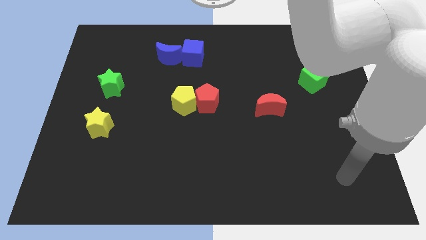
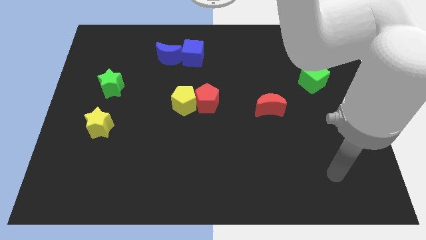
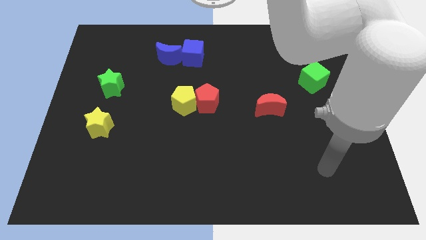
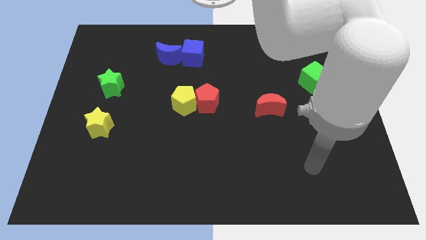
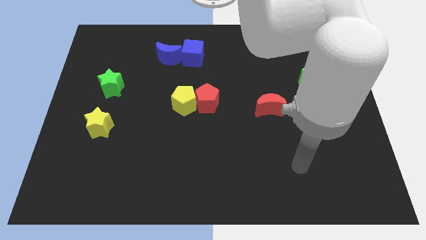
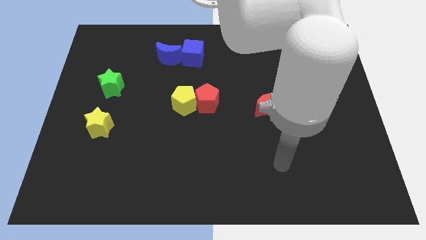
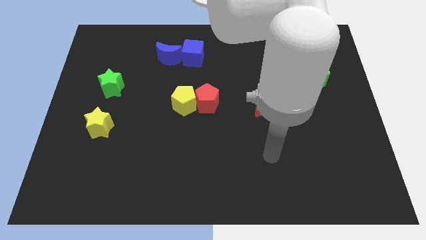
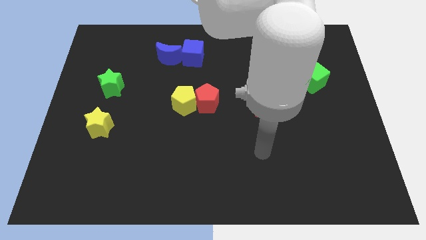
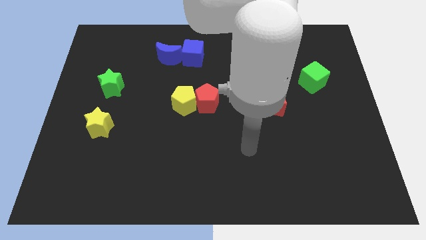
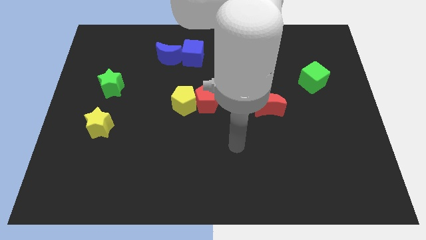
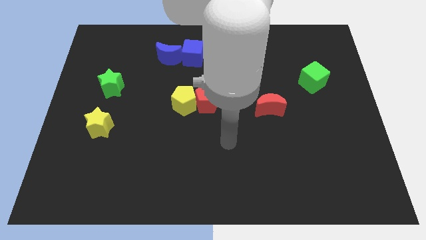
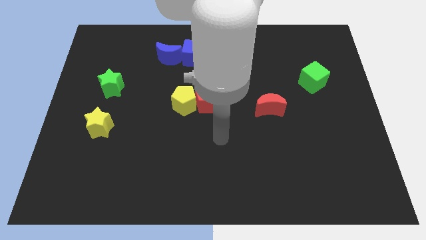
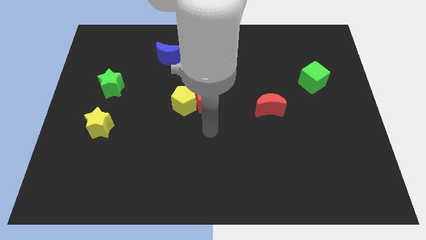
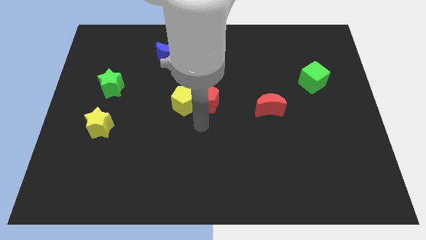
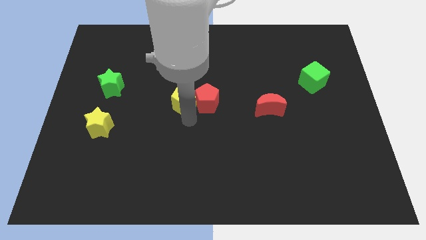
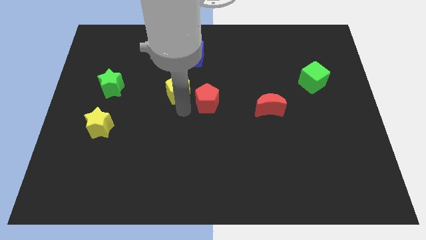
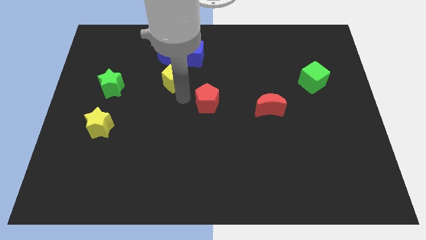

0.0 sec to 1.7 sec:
separate the red pentagon from the yellow pentagon

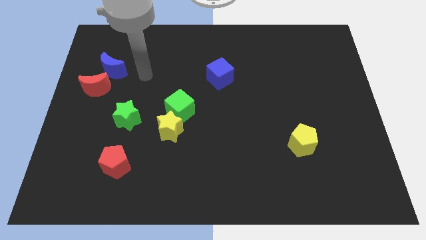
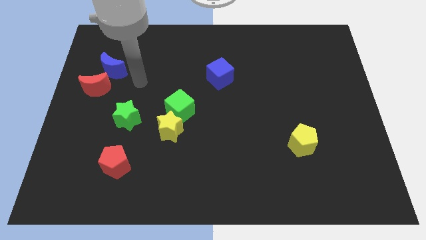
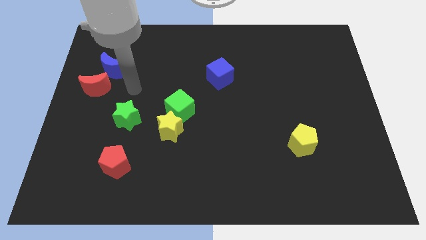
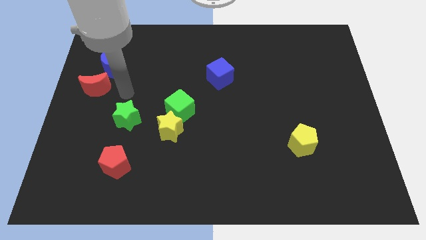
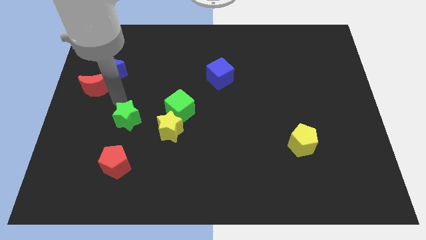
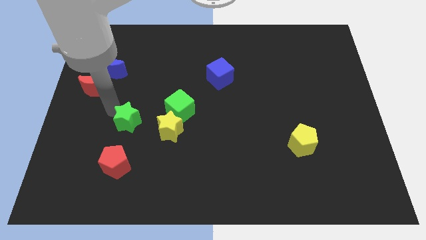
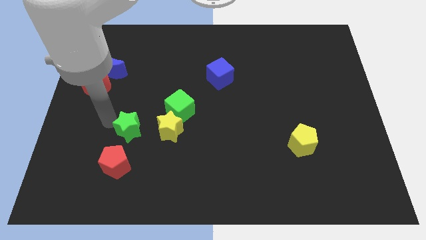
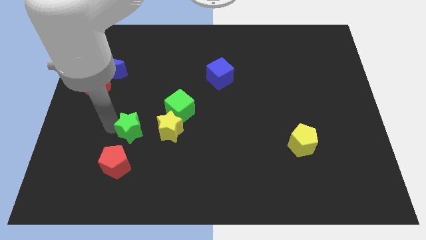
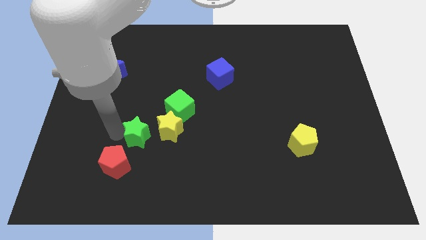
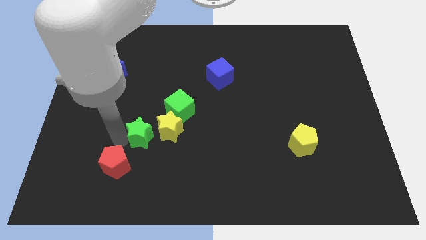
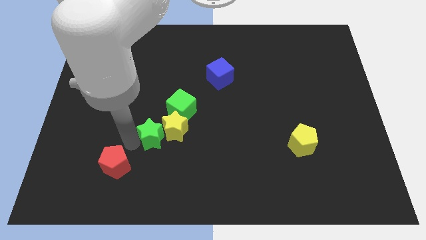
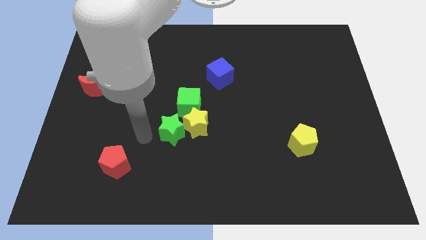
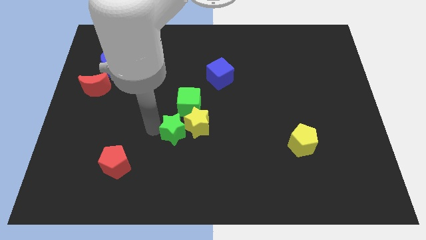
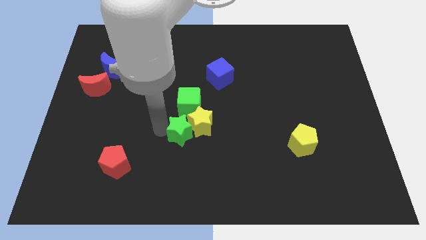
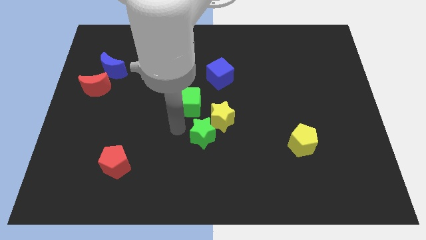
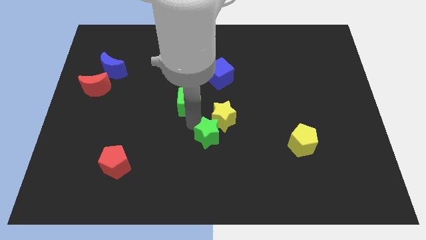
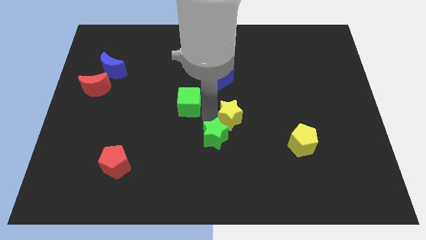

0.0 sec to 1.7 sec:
pull the green cube apart from the yellow star

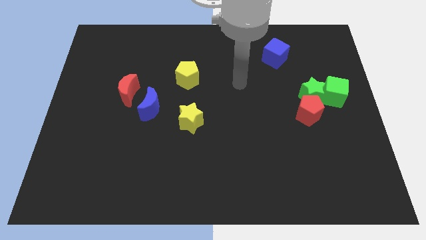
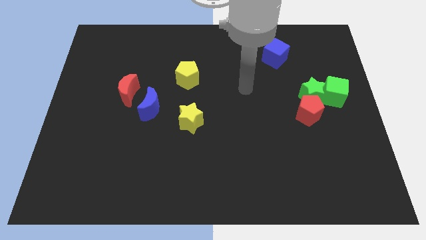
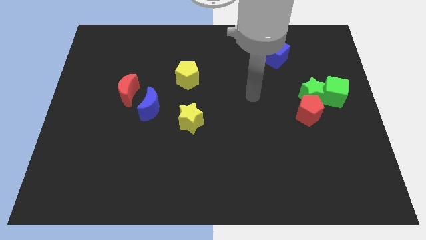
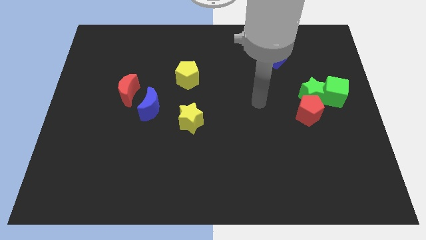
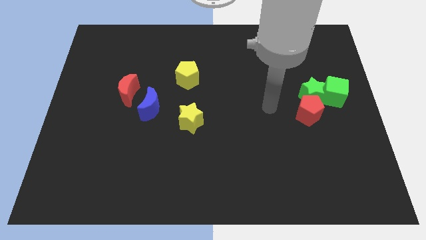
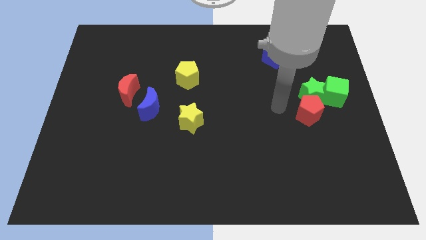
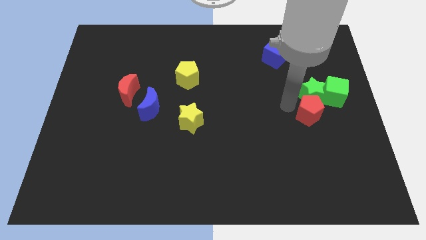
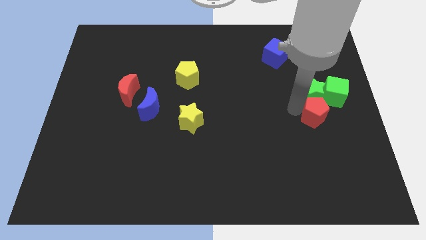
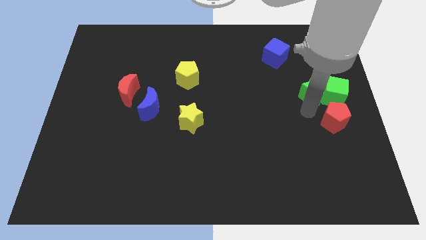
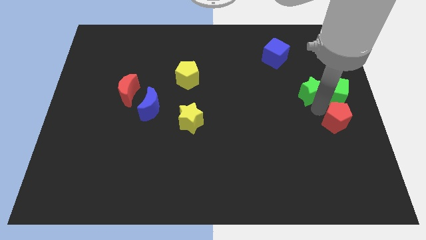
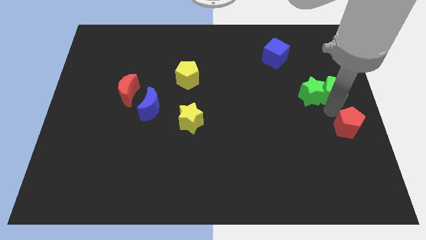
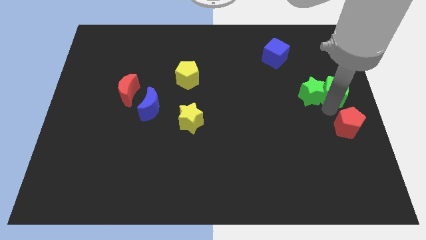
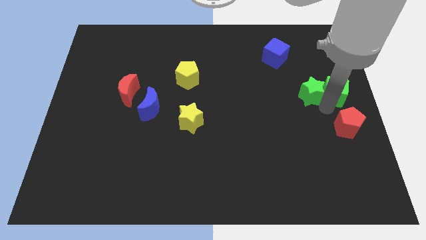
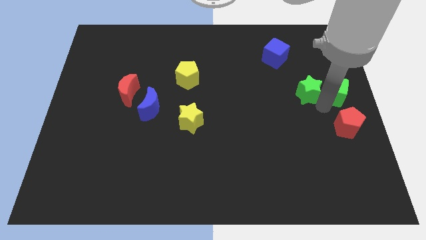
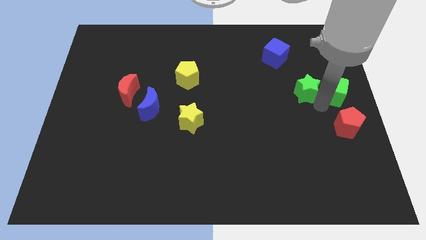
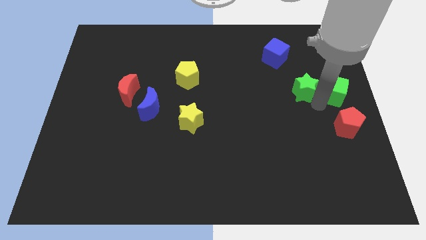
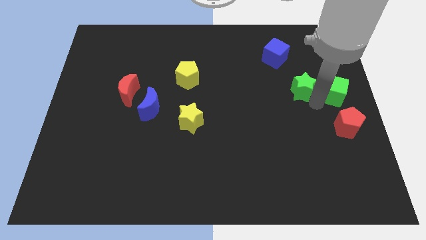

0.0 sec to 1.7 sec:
pull the green star apart from the red pentagon and green cube

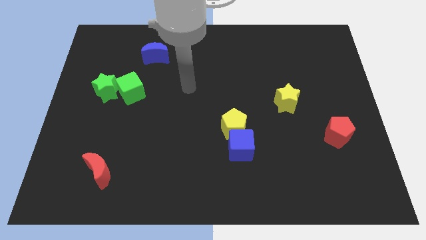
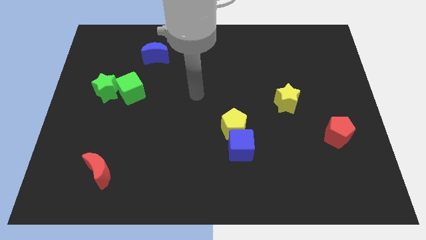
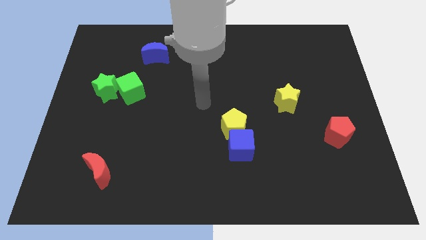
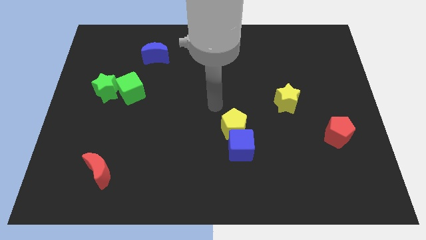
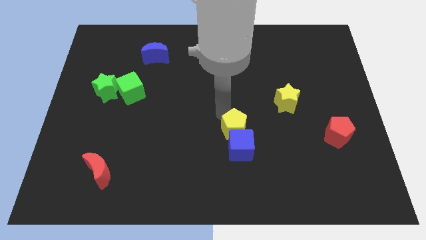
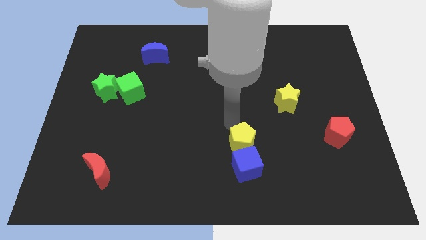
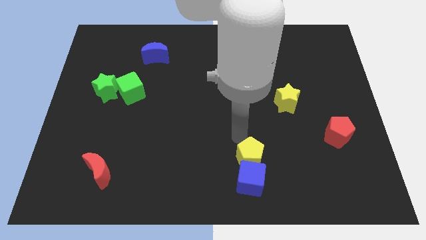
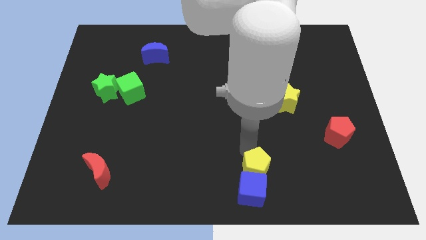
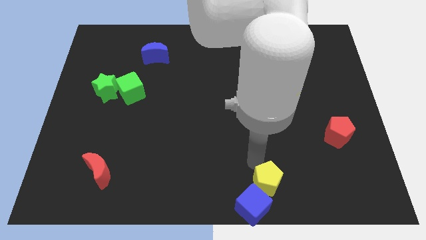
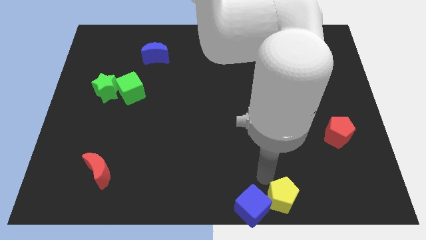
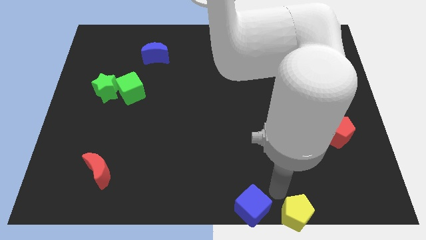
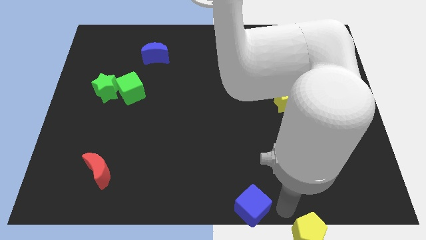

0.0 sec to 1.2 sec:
pull the blue cube apart from the yellow pentagon

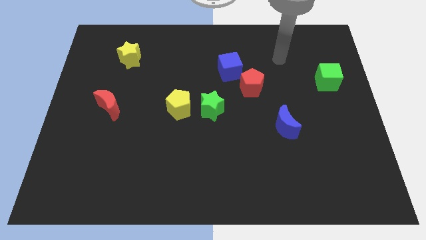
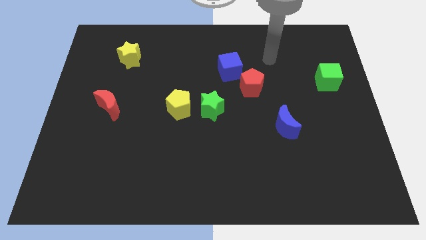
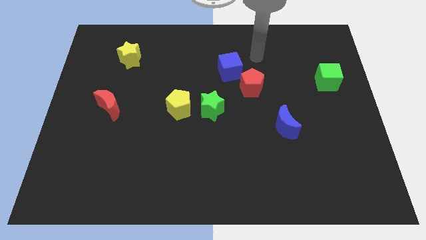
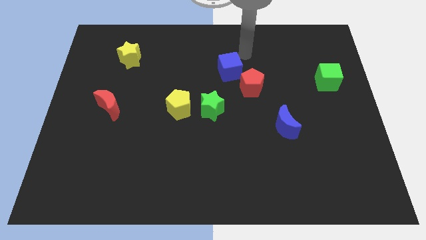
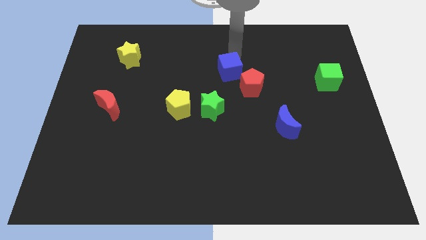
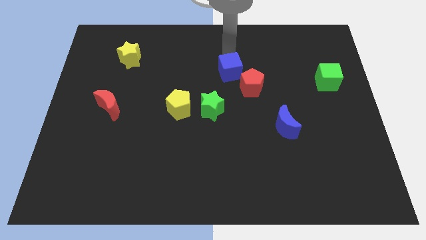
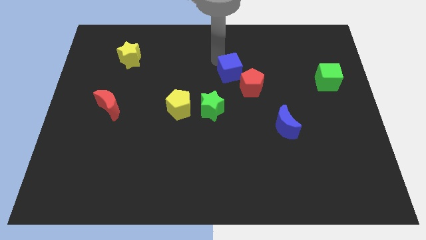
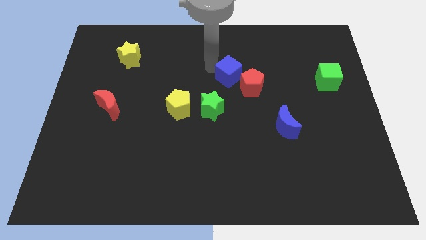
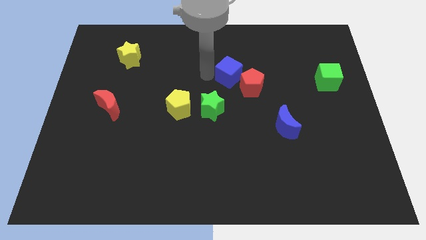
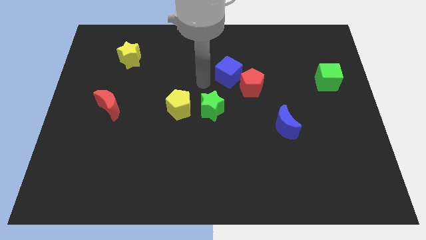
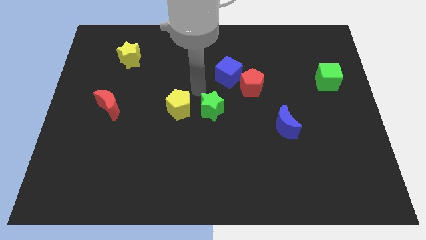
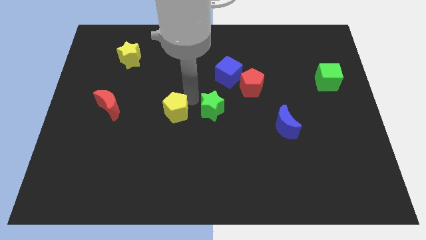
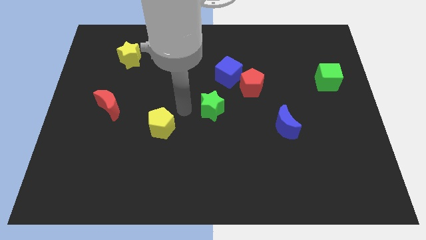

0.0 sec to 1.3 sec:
pull the green star apart from the yellow pentagon

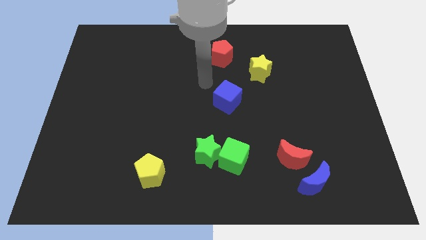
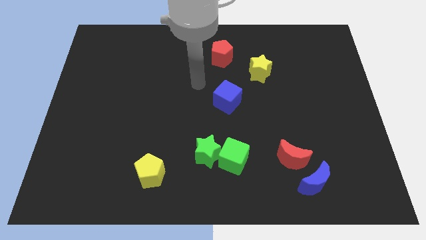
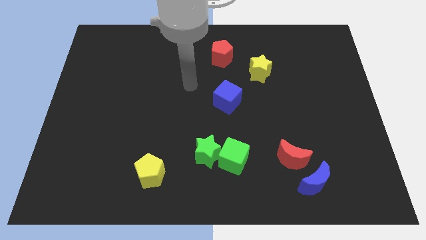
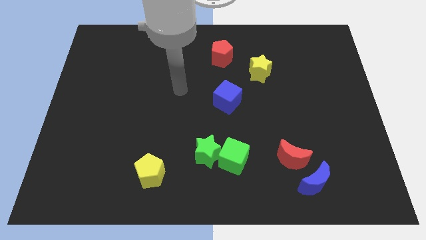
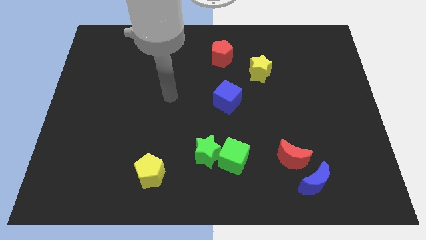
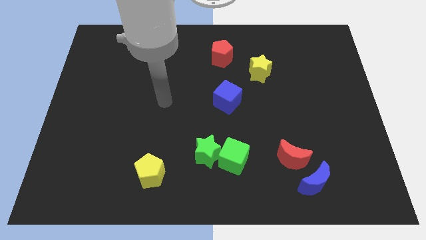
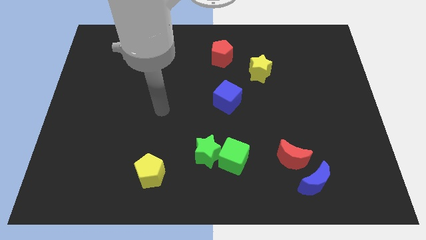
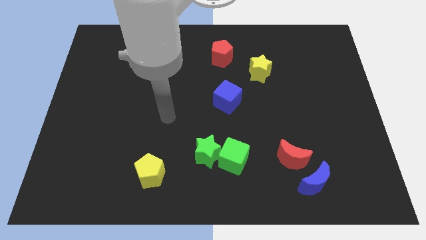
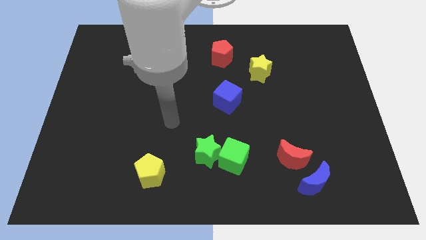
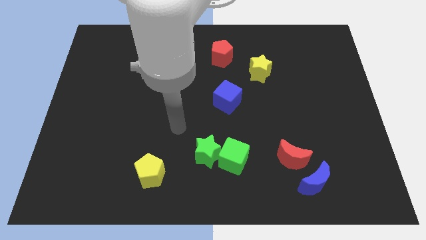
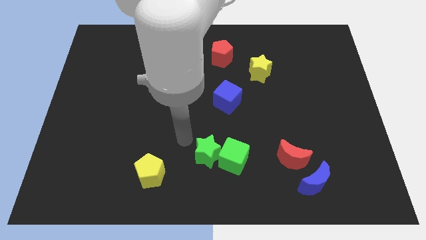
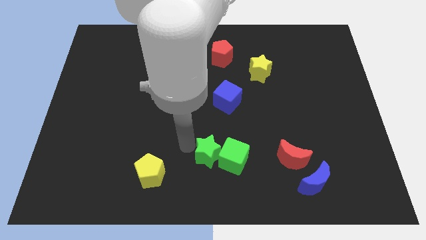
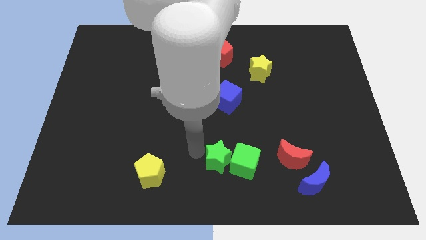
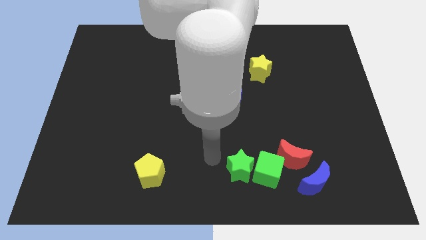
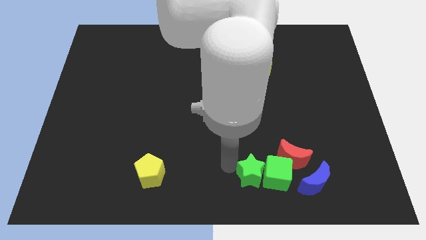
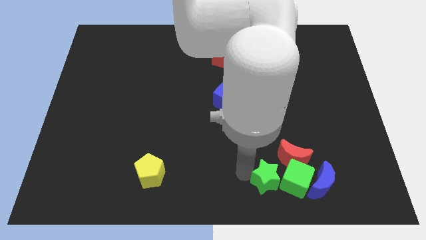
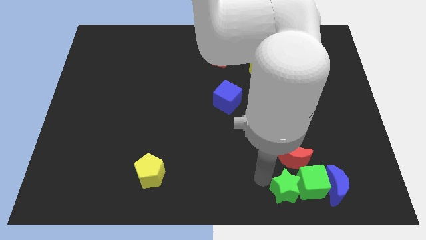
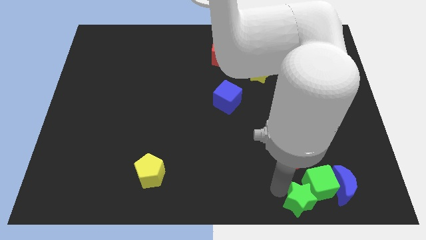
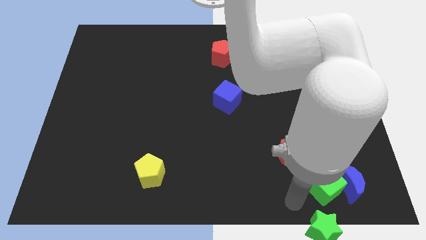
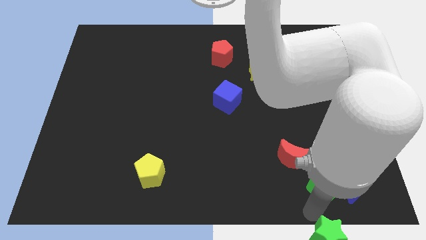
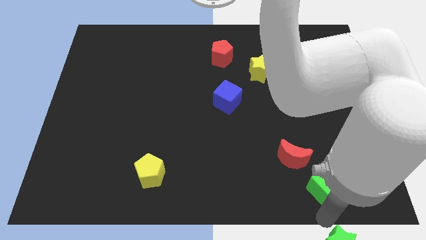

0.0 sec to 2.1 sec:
pull the green cube apart from the green star
